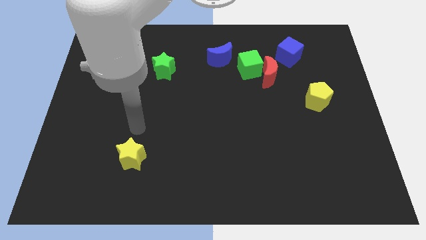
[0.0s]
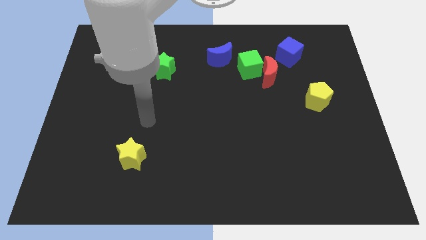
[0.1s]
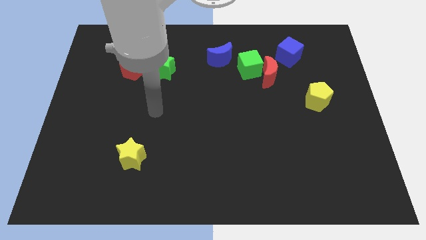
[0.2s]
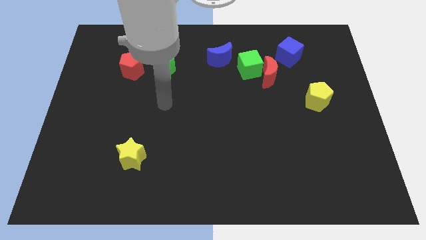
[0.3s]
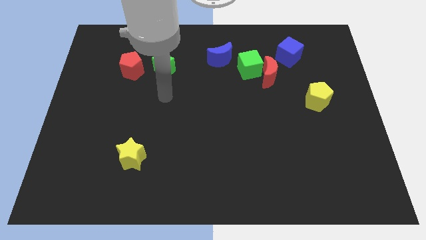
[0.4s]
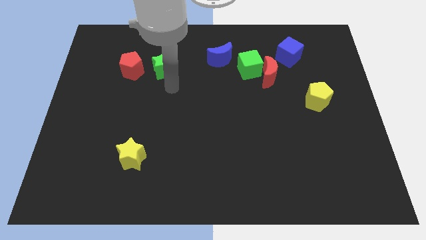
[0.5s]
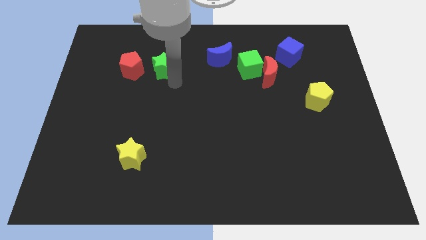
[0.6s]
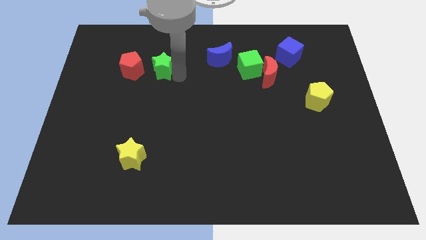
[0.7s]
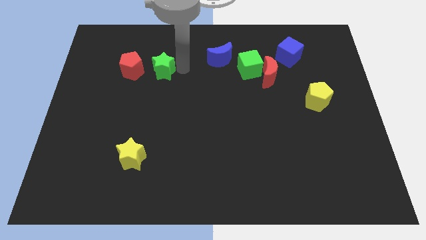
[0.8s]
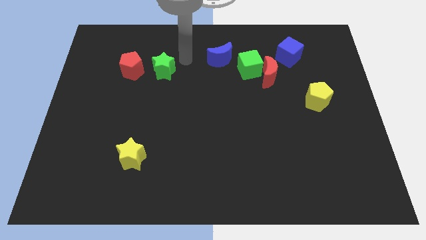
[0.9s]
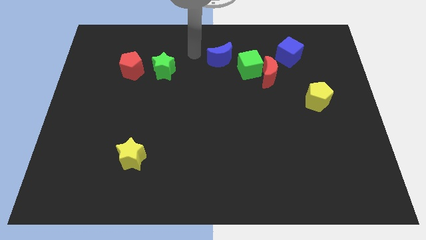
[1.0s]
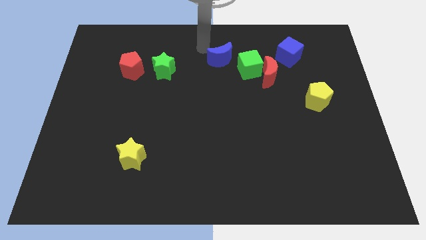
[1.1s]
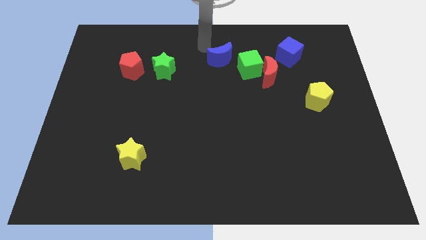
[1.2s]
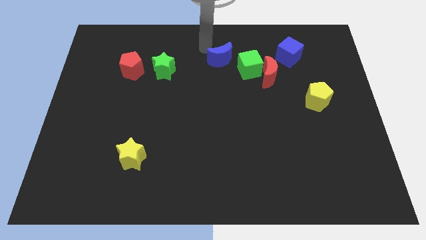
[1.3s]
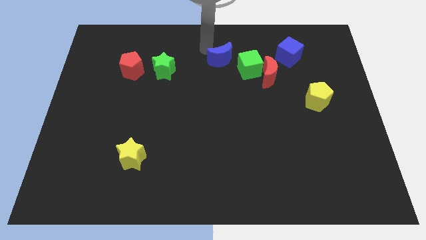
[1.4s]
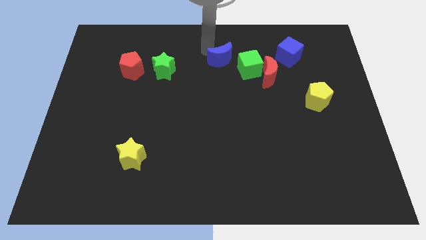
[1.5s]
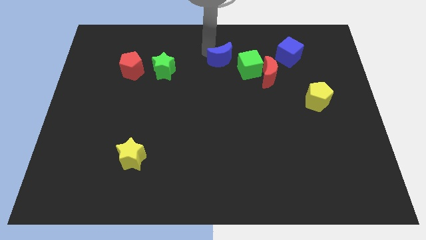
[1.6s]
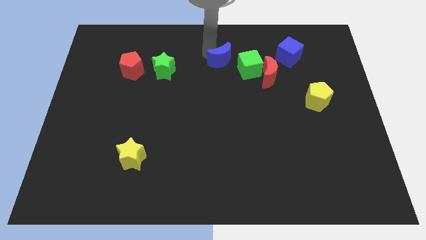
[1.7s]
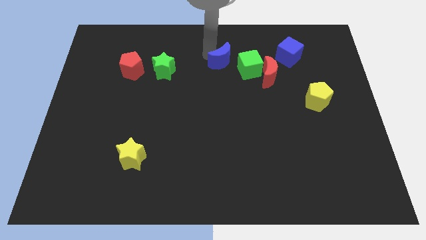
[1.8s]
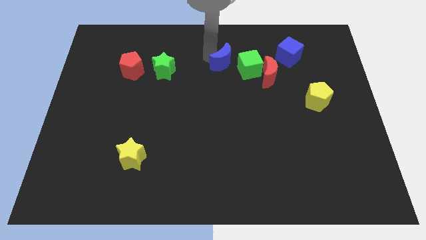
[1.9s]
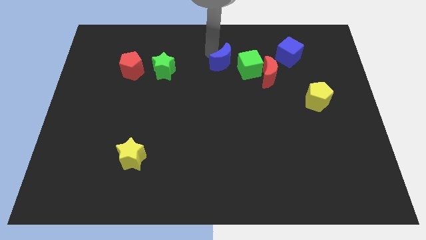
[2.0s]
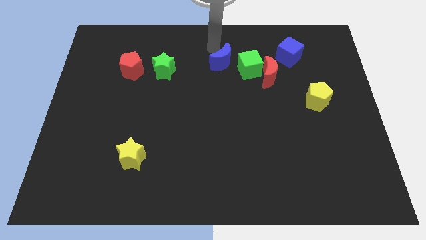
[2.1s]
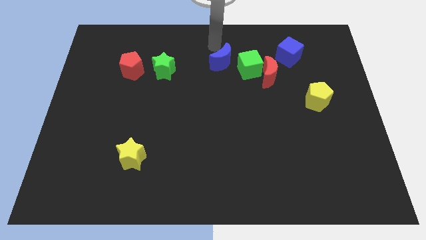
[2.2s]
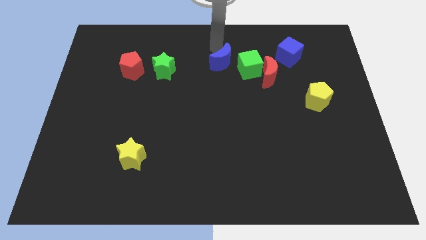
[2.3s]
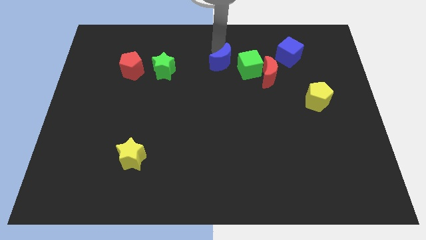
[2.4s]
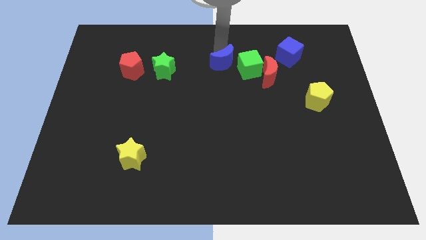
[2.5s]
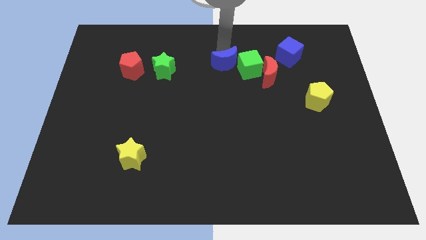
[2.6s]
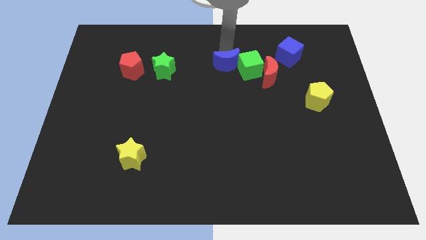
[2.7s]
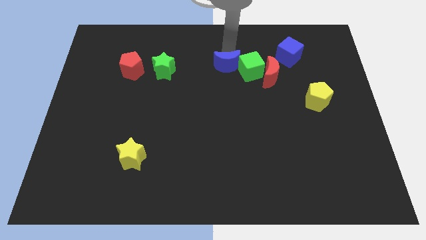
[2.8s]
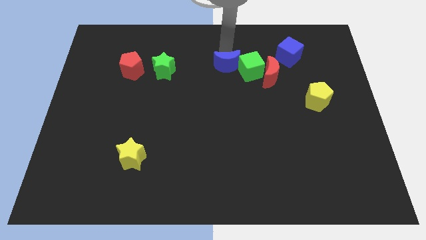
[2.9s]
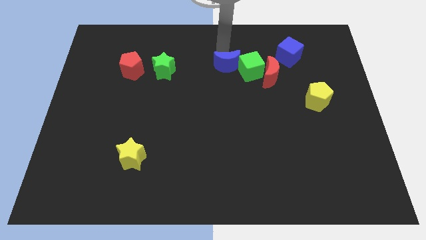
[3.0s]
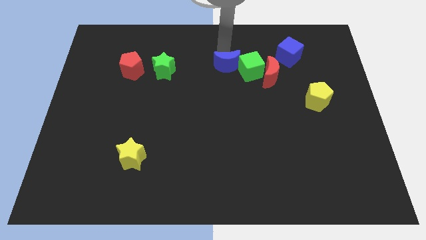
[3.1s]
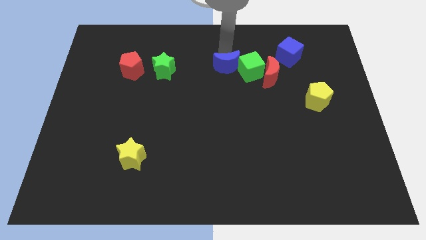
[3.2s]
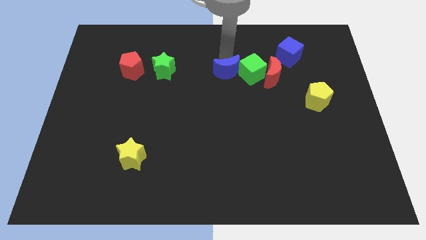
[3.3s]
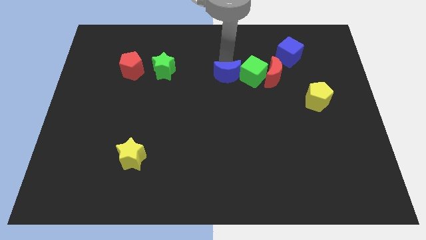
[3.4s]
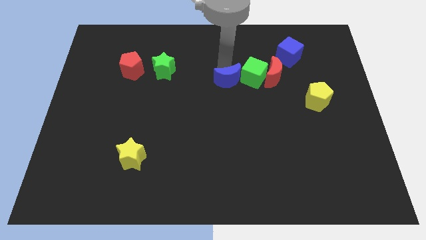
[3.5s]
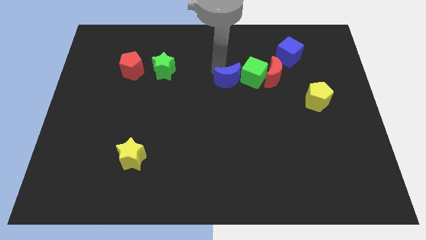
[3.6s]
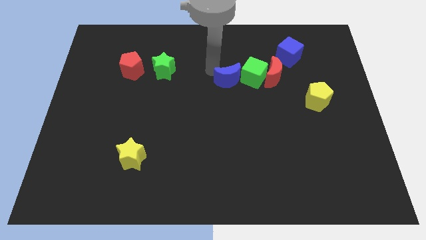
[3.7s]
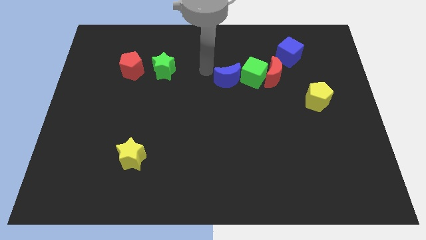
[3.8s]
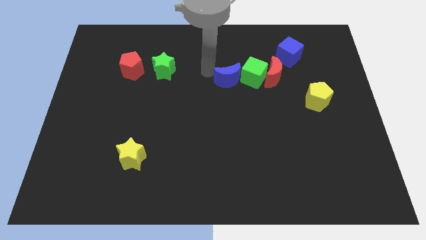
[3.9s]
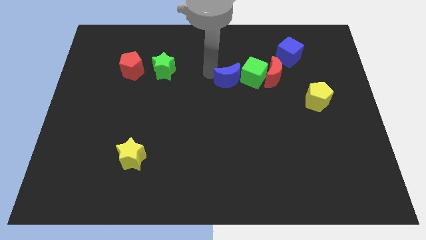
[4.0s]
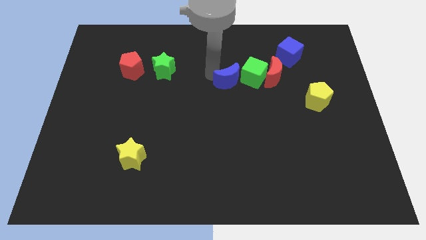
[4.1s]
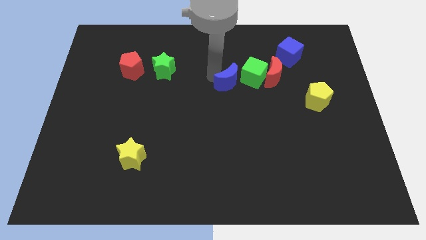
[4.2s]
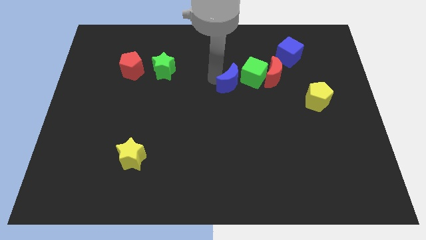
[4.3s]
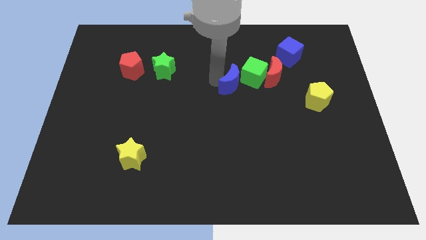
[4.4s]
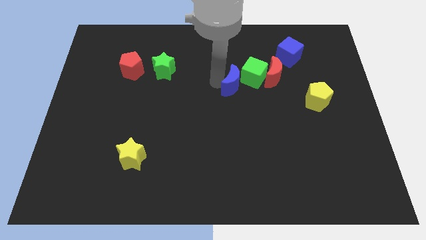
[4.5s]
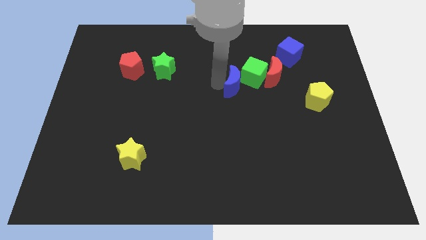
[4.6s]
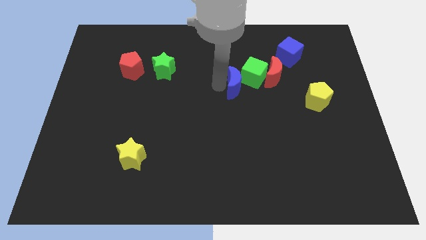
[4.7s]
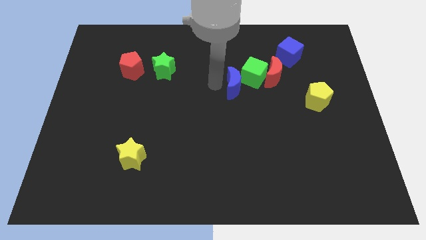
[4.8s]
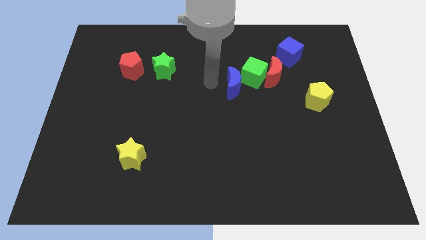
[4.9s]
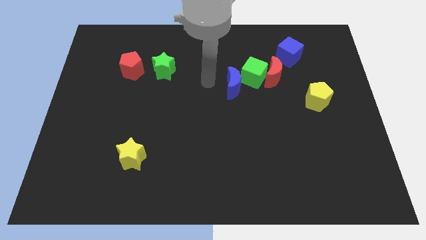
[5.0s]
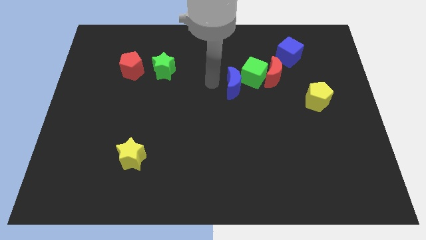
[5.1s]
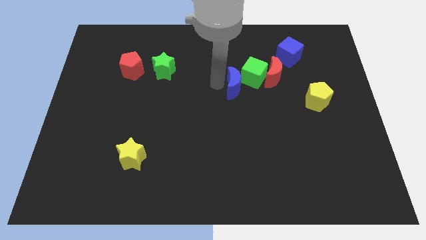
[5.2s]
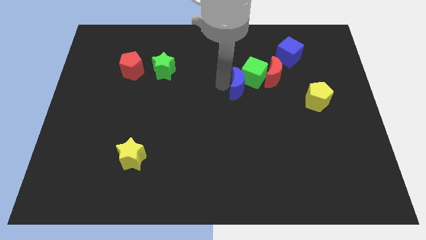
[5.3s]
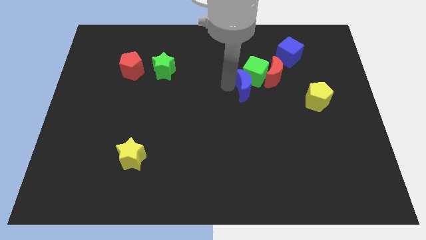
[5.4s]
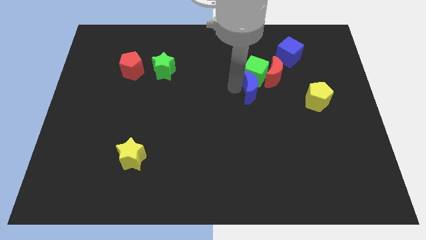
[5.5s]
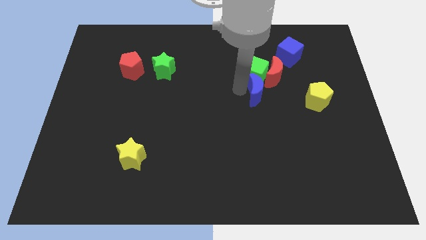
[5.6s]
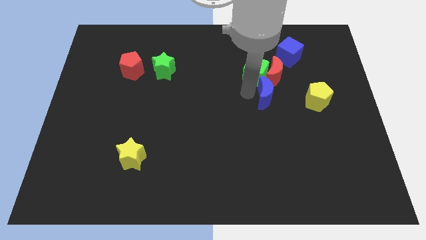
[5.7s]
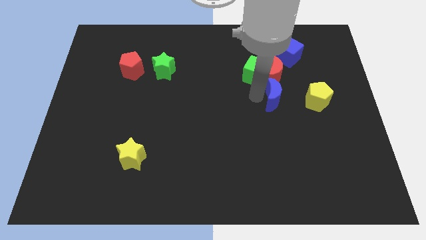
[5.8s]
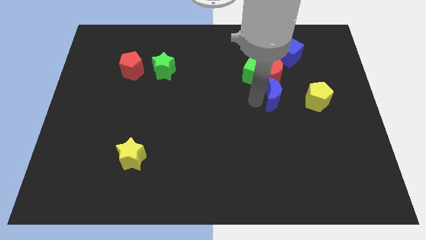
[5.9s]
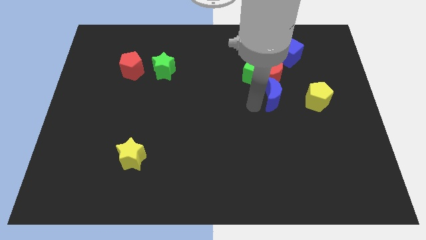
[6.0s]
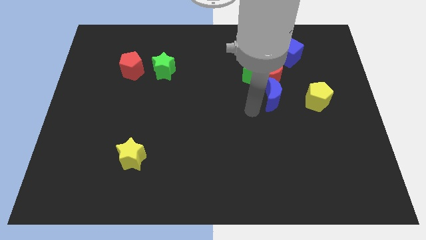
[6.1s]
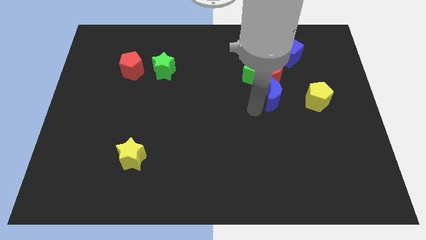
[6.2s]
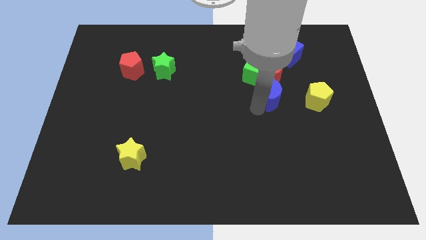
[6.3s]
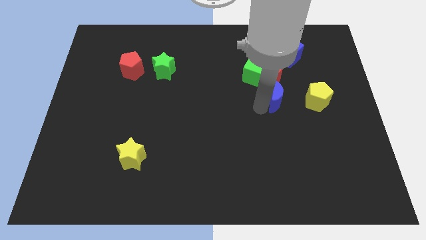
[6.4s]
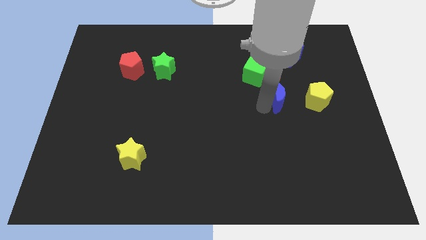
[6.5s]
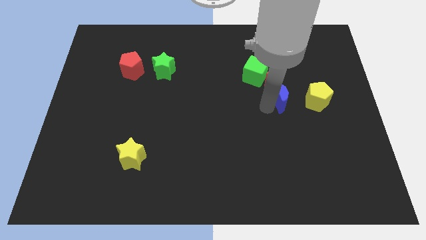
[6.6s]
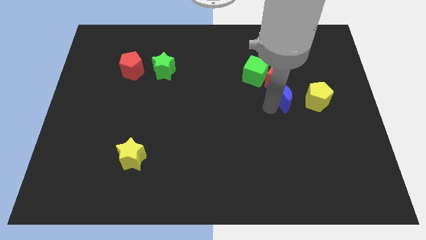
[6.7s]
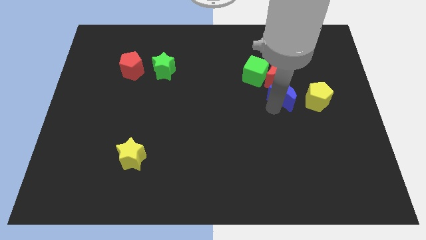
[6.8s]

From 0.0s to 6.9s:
put the blue moon to the bottom of the blue cube
